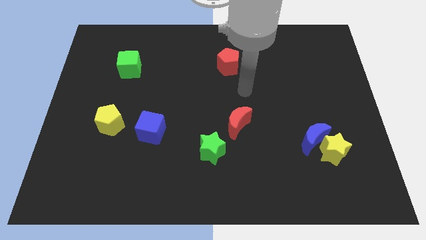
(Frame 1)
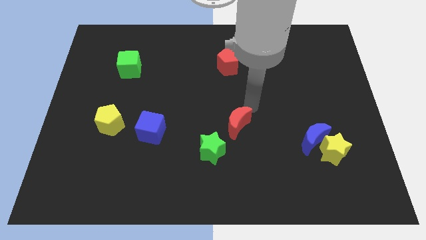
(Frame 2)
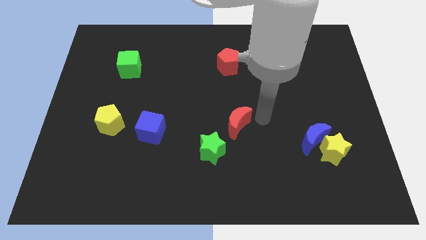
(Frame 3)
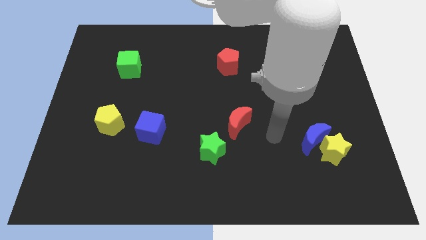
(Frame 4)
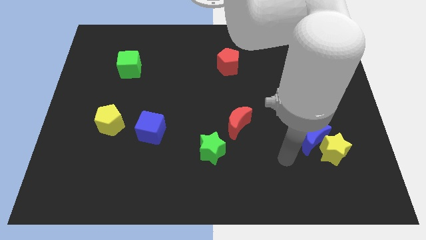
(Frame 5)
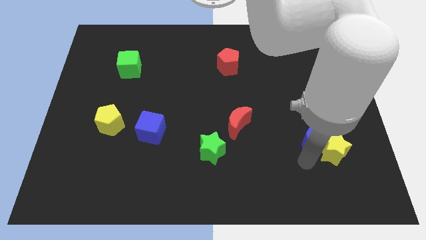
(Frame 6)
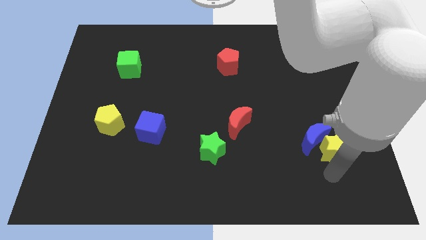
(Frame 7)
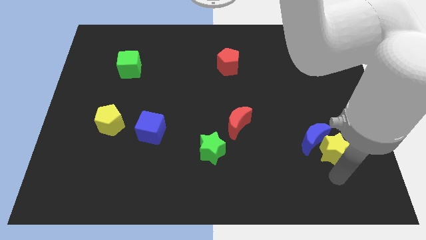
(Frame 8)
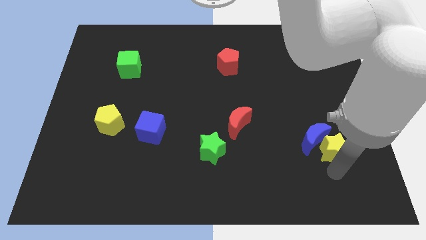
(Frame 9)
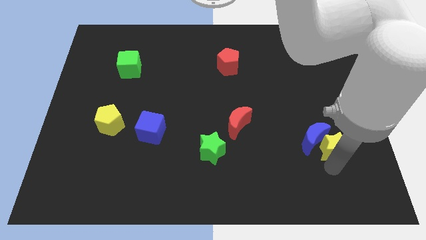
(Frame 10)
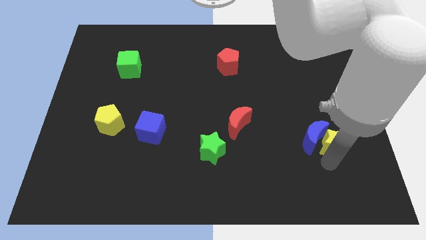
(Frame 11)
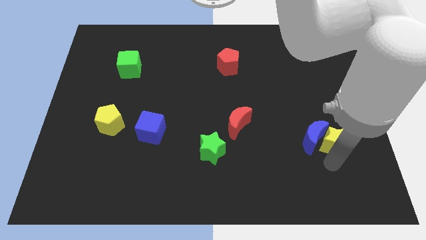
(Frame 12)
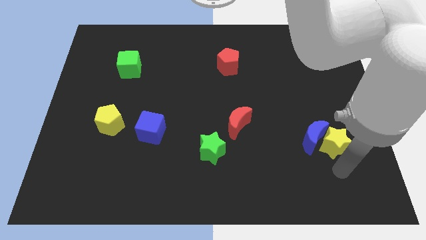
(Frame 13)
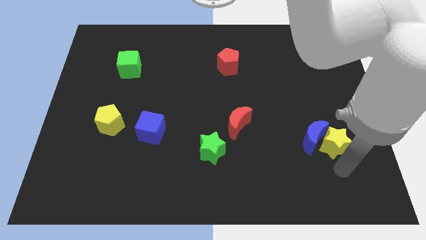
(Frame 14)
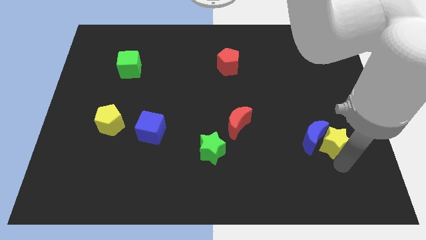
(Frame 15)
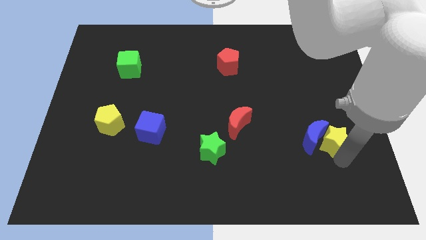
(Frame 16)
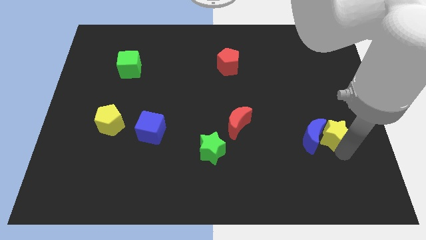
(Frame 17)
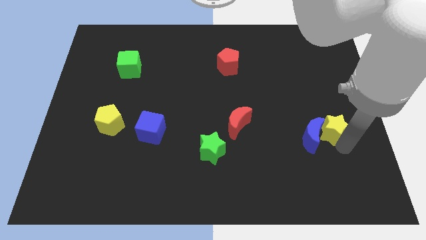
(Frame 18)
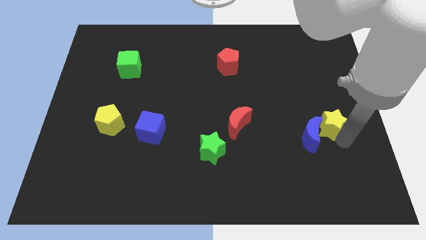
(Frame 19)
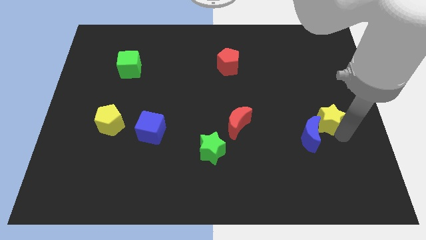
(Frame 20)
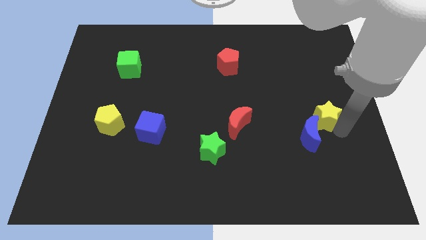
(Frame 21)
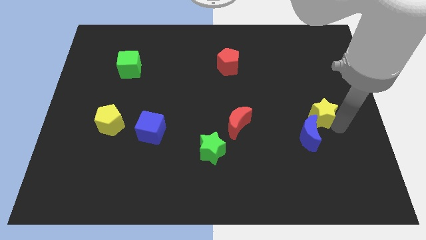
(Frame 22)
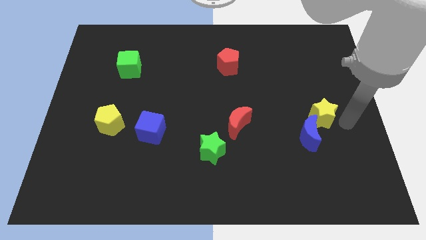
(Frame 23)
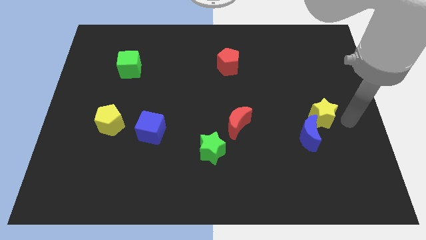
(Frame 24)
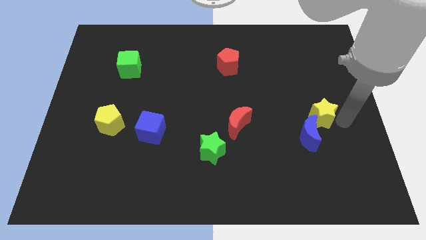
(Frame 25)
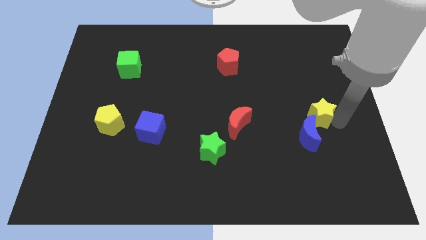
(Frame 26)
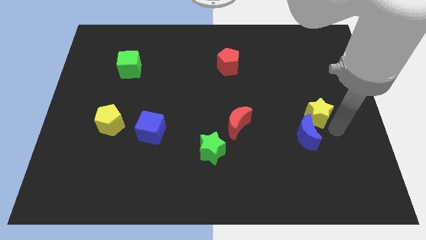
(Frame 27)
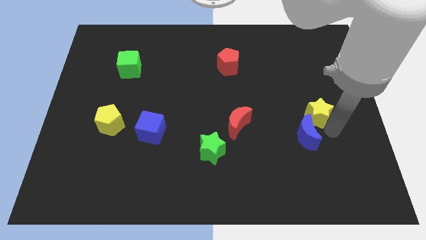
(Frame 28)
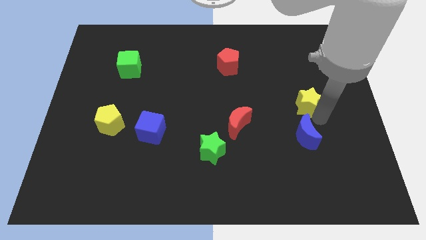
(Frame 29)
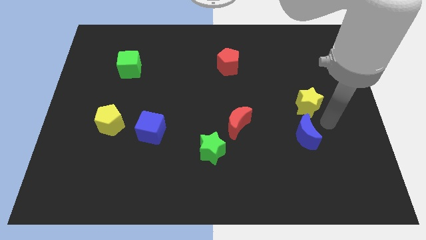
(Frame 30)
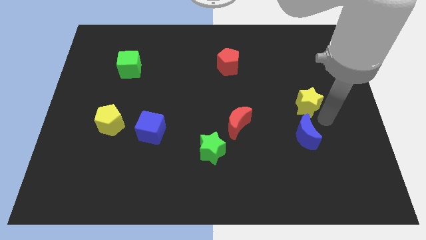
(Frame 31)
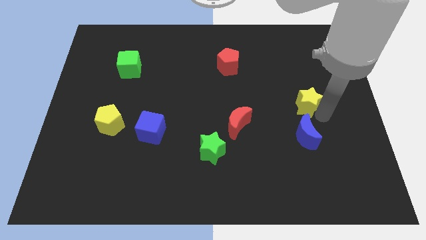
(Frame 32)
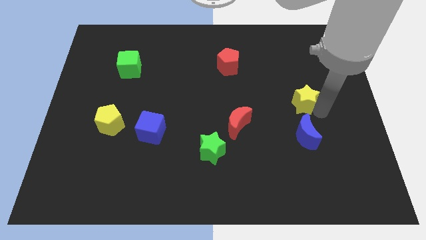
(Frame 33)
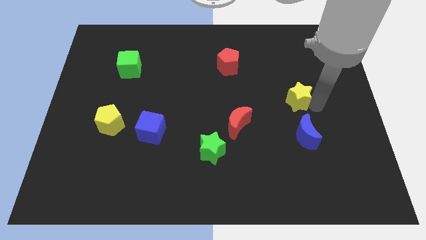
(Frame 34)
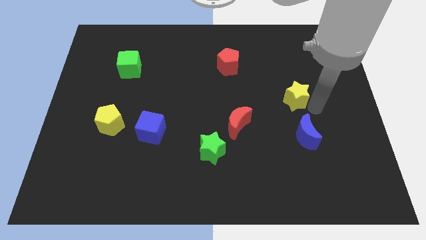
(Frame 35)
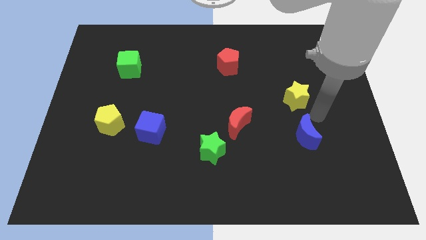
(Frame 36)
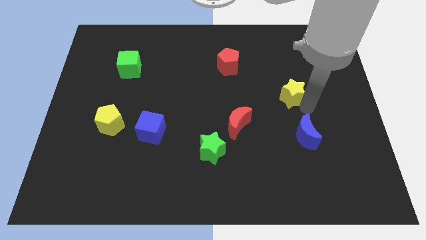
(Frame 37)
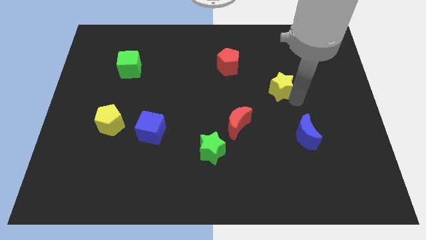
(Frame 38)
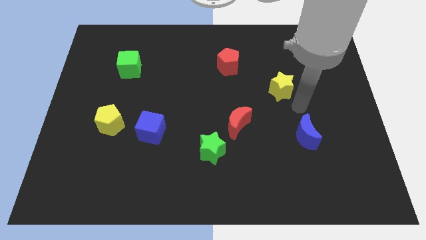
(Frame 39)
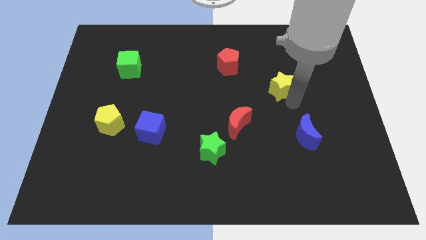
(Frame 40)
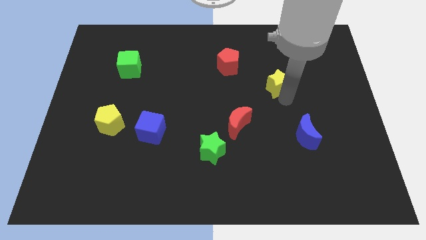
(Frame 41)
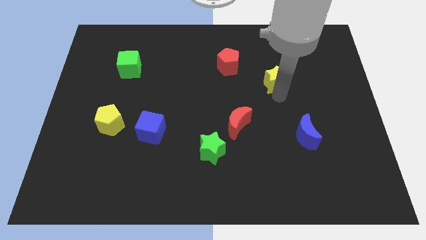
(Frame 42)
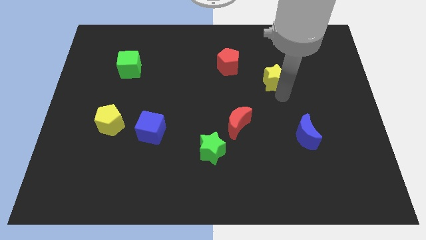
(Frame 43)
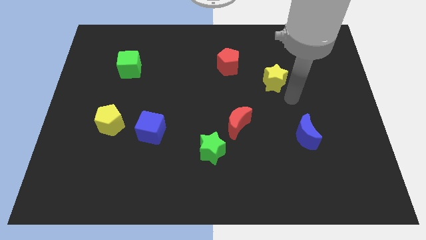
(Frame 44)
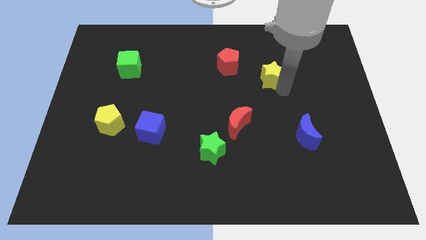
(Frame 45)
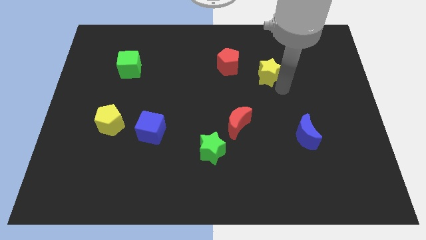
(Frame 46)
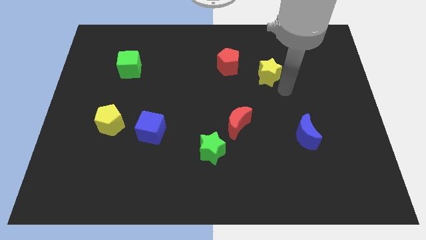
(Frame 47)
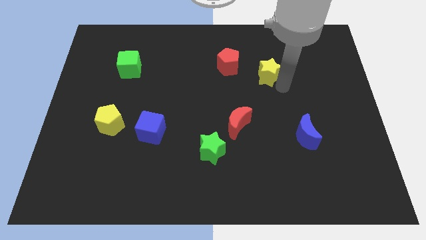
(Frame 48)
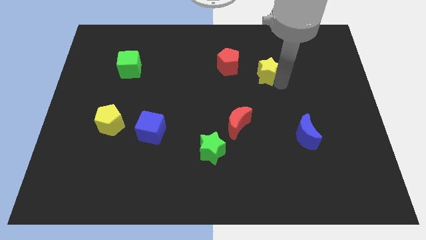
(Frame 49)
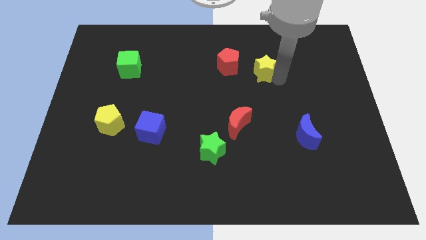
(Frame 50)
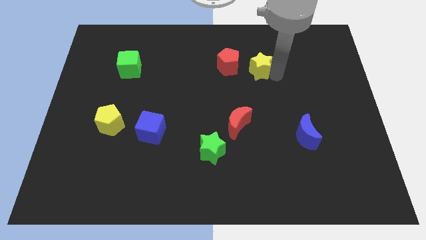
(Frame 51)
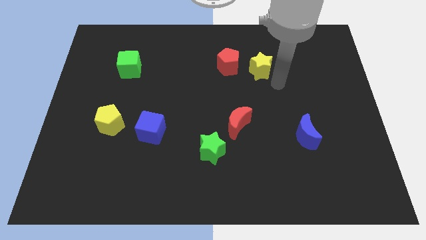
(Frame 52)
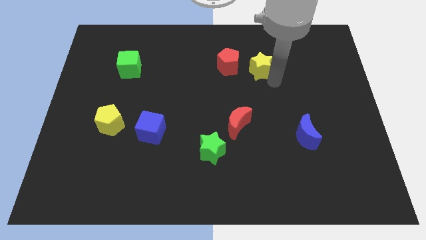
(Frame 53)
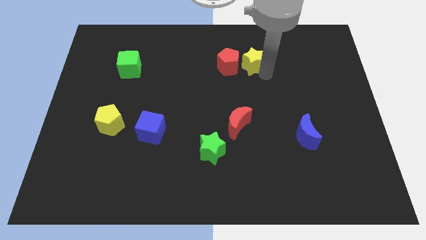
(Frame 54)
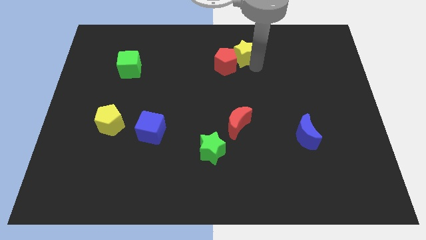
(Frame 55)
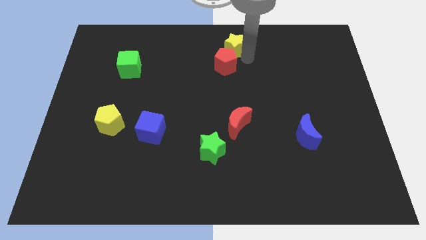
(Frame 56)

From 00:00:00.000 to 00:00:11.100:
slide the yellow star to the towards your base

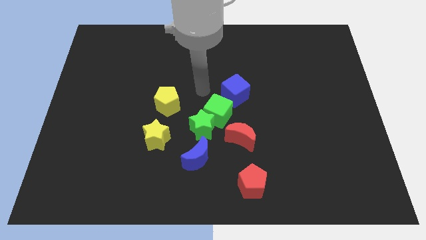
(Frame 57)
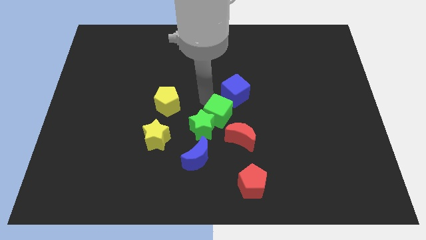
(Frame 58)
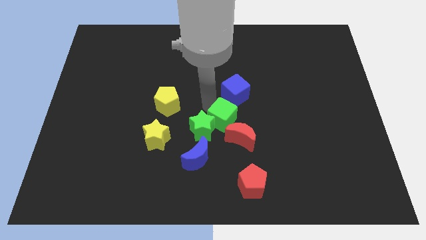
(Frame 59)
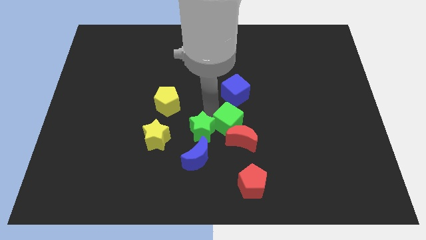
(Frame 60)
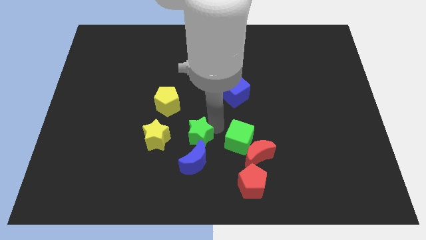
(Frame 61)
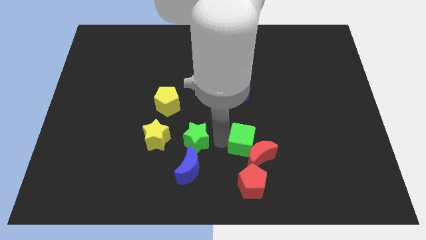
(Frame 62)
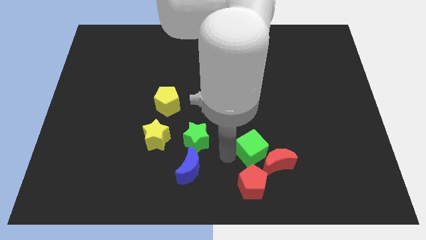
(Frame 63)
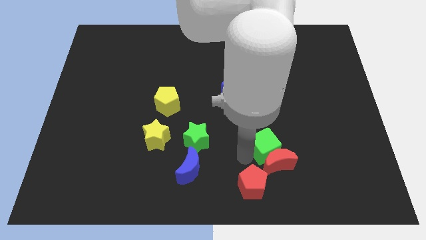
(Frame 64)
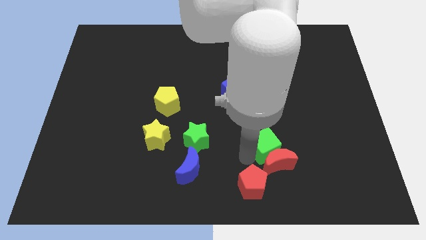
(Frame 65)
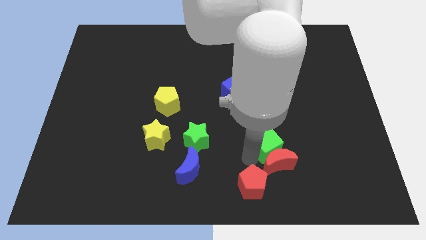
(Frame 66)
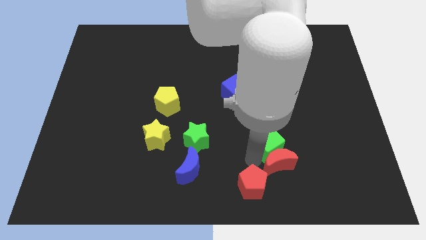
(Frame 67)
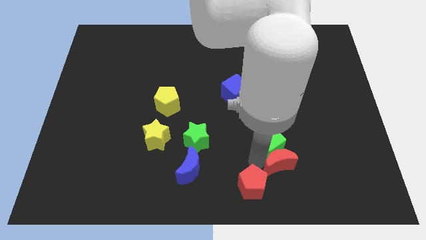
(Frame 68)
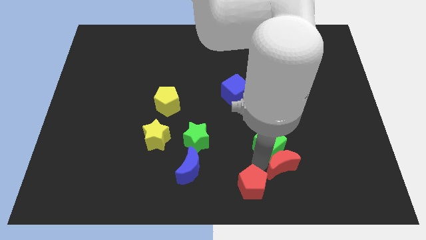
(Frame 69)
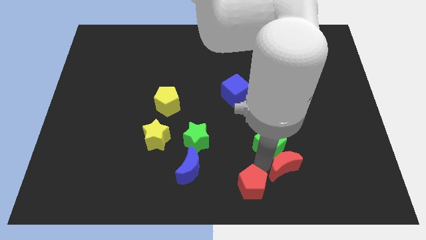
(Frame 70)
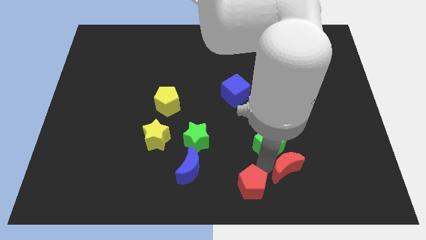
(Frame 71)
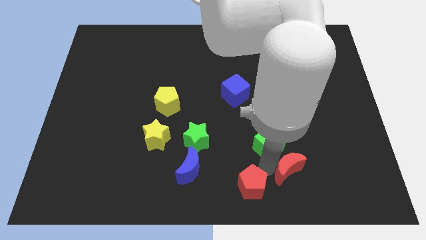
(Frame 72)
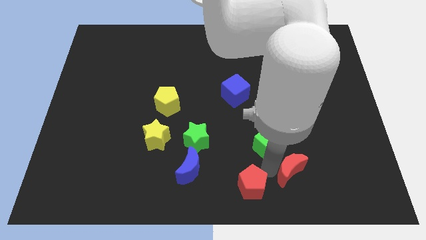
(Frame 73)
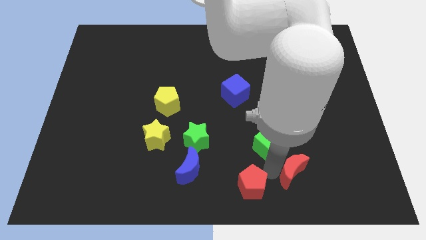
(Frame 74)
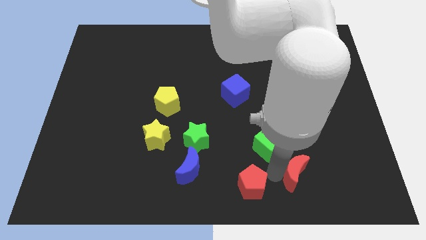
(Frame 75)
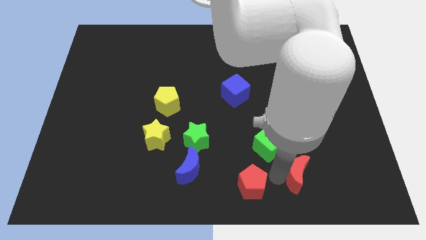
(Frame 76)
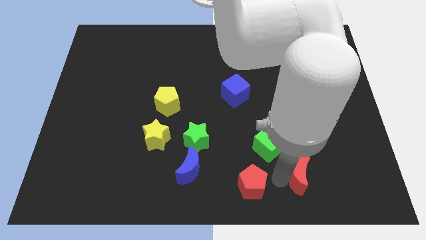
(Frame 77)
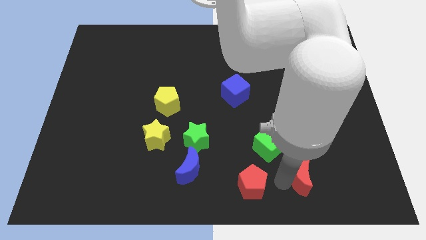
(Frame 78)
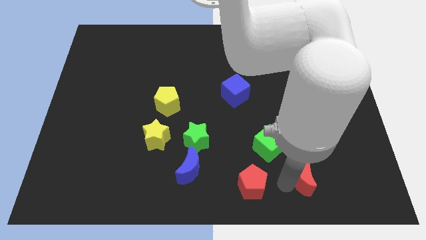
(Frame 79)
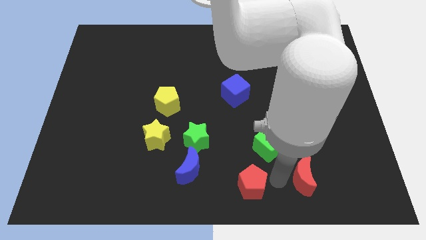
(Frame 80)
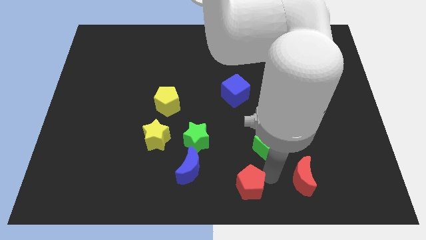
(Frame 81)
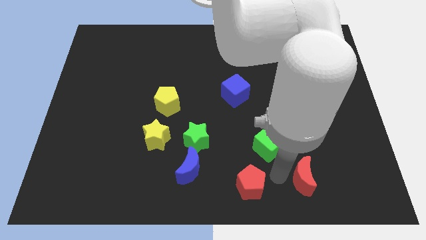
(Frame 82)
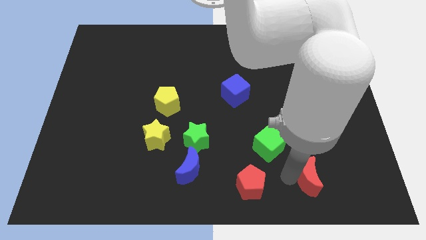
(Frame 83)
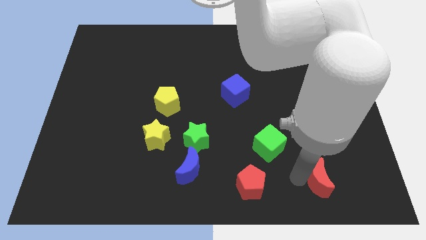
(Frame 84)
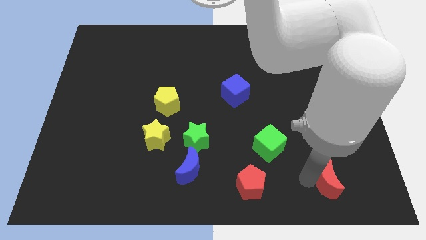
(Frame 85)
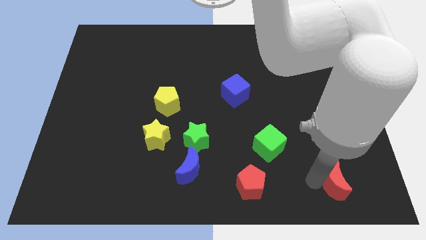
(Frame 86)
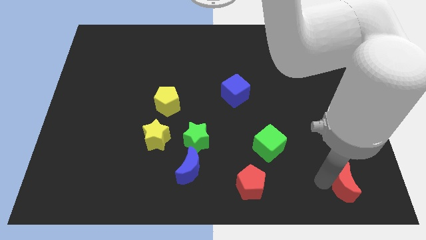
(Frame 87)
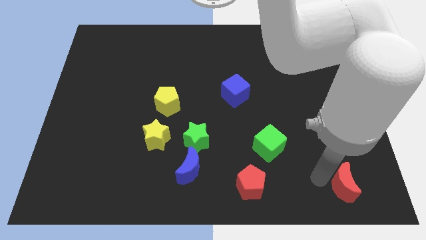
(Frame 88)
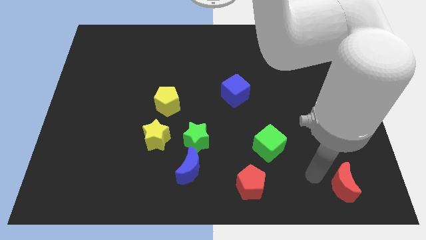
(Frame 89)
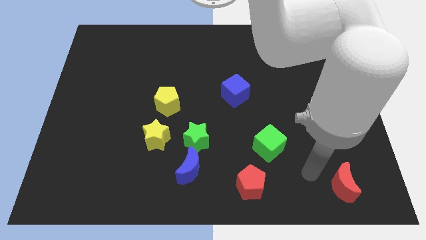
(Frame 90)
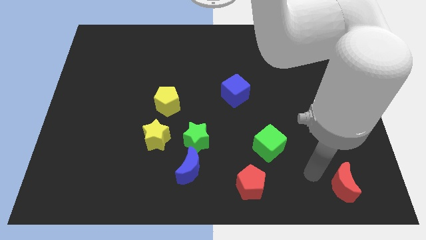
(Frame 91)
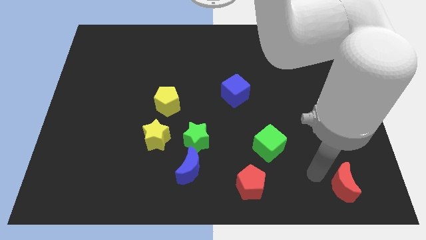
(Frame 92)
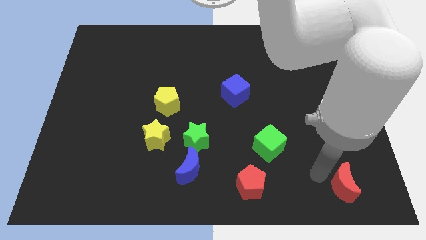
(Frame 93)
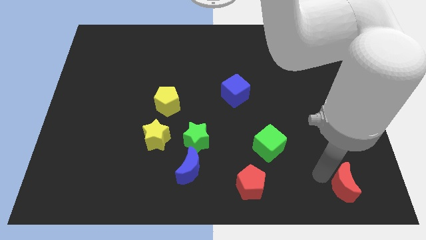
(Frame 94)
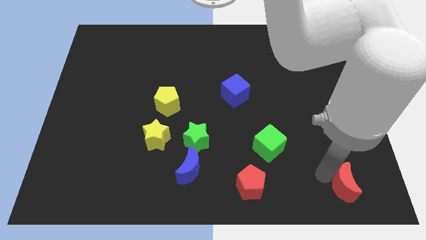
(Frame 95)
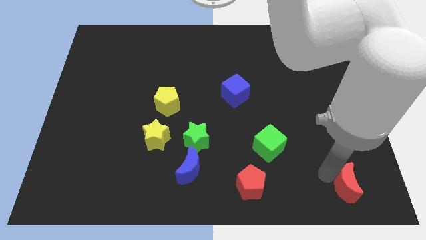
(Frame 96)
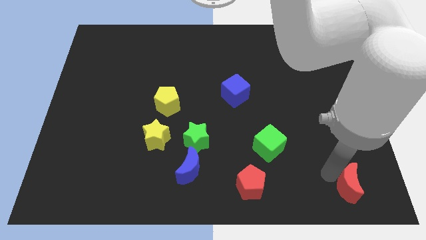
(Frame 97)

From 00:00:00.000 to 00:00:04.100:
slide the red moon to the bottom right of the board
